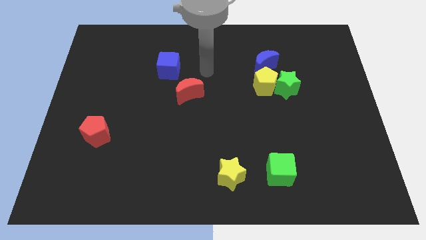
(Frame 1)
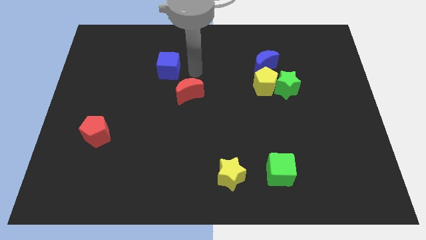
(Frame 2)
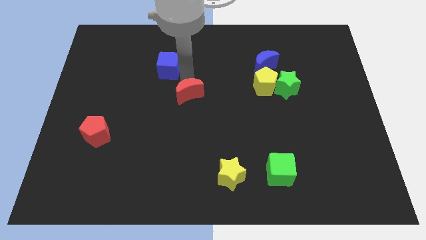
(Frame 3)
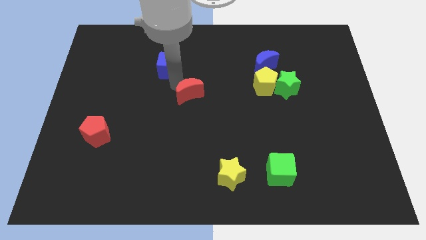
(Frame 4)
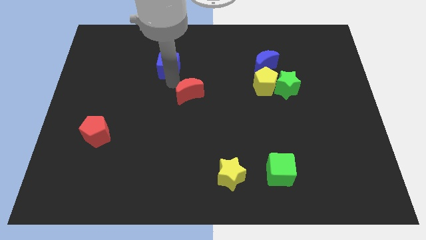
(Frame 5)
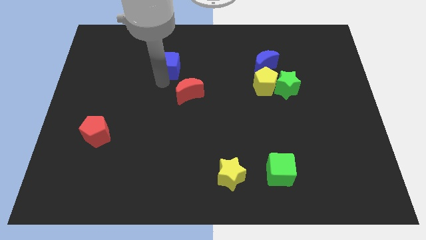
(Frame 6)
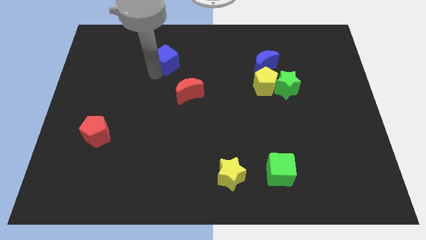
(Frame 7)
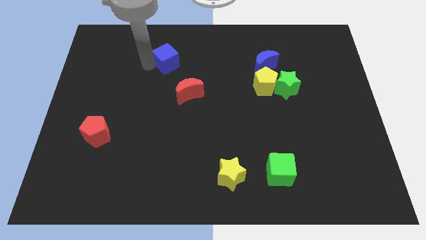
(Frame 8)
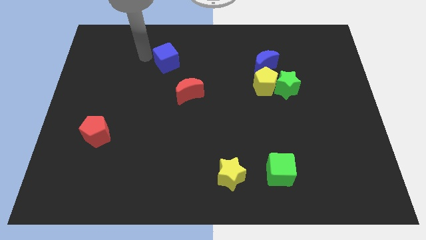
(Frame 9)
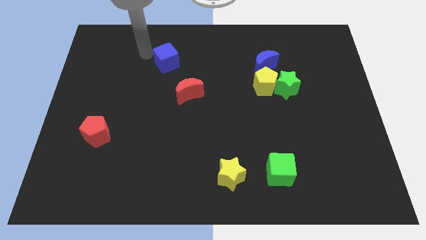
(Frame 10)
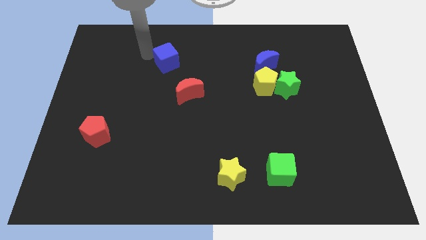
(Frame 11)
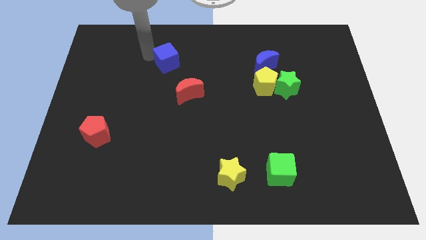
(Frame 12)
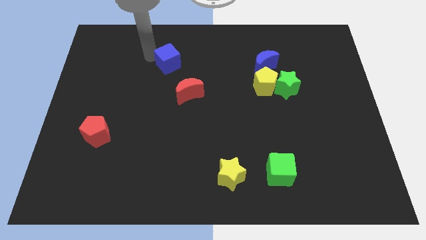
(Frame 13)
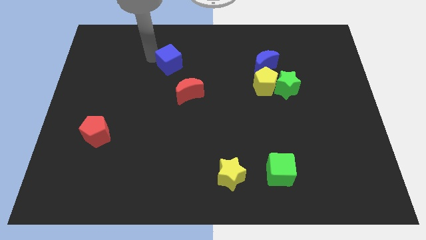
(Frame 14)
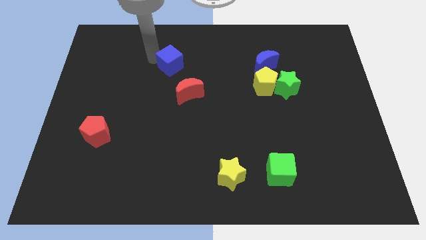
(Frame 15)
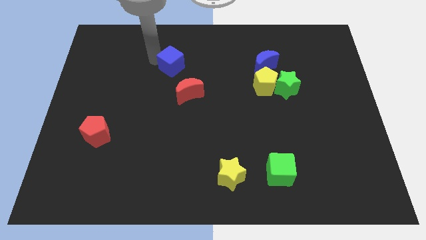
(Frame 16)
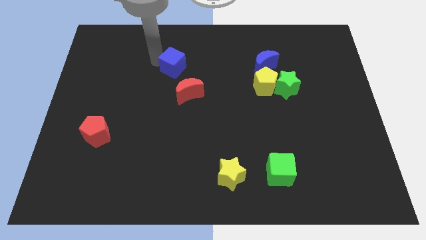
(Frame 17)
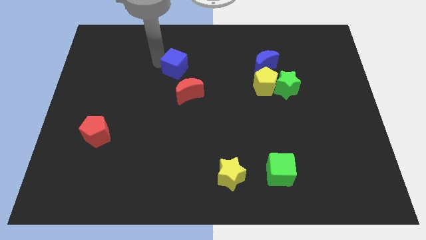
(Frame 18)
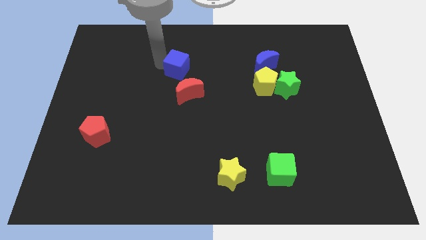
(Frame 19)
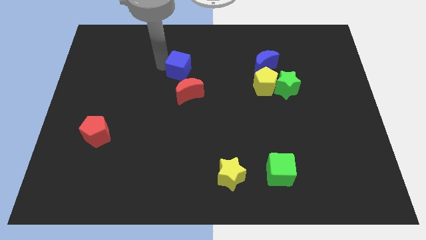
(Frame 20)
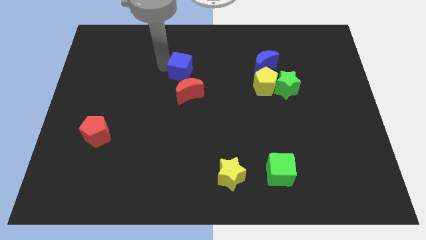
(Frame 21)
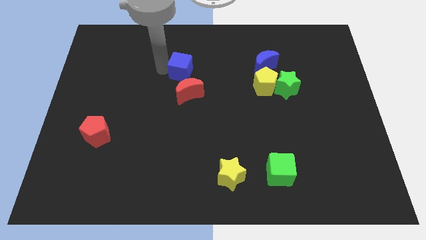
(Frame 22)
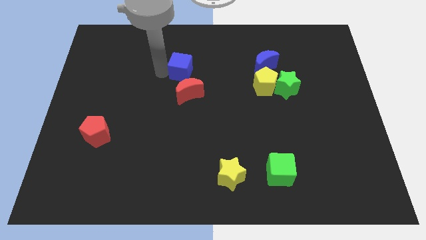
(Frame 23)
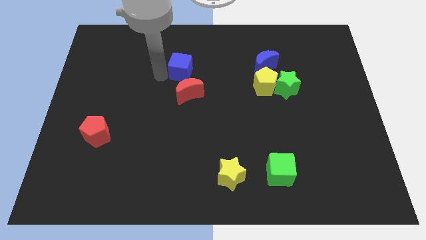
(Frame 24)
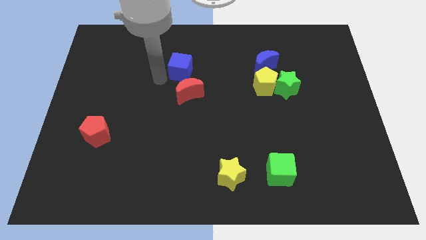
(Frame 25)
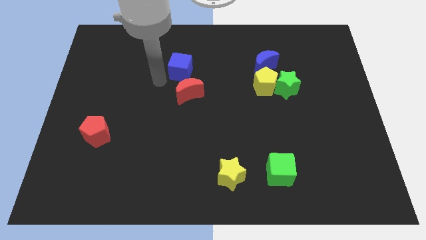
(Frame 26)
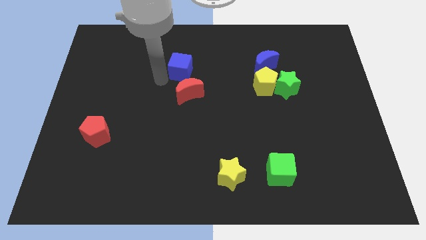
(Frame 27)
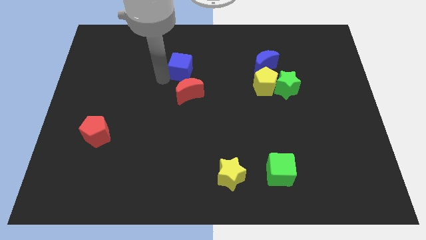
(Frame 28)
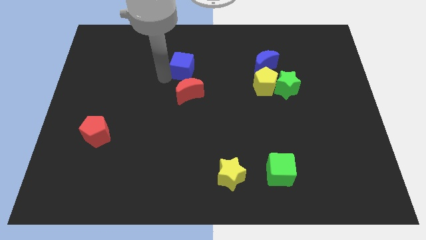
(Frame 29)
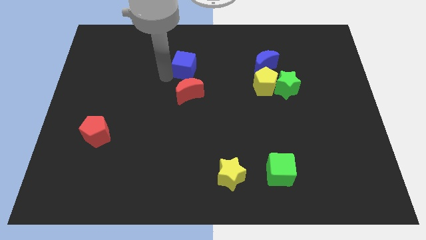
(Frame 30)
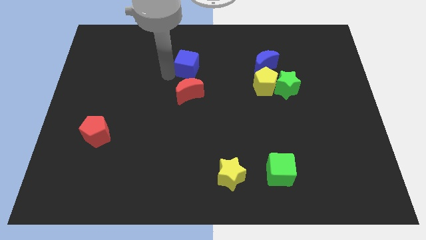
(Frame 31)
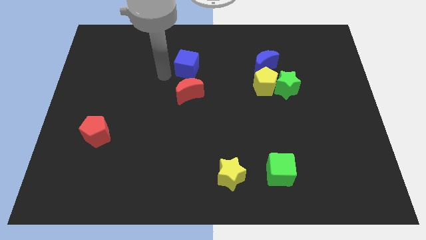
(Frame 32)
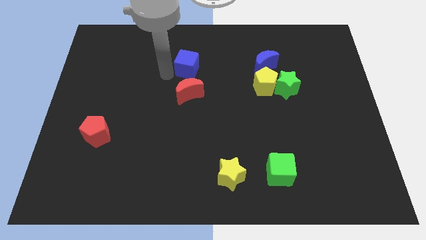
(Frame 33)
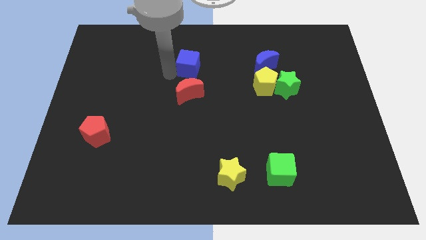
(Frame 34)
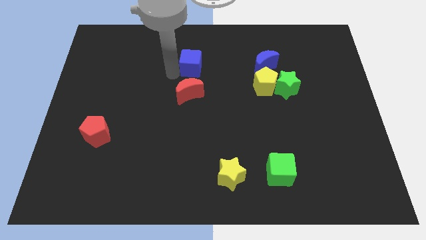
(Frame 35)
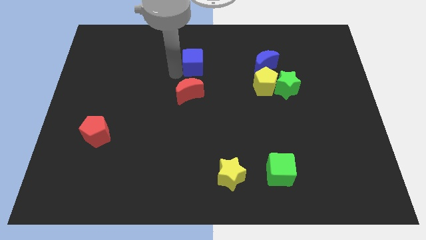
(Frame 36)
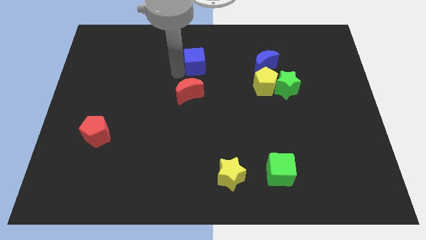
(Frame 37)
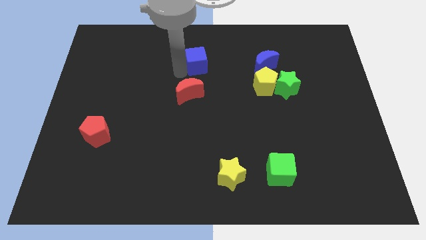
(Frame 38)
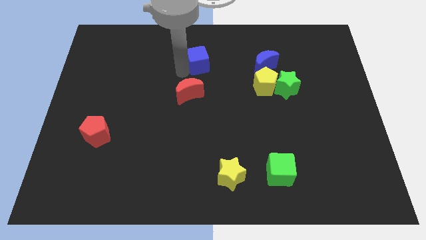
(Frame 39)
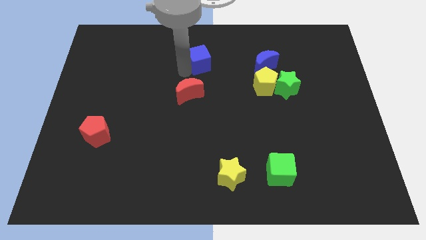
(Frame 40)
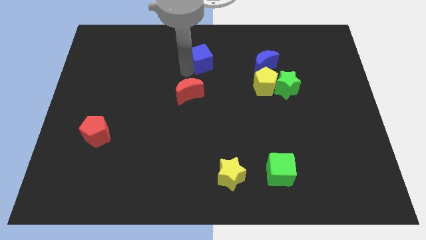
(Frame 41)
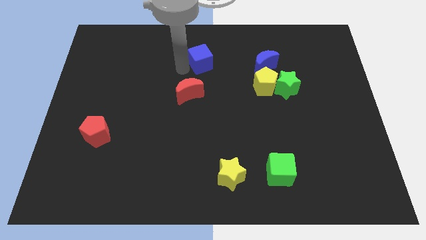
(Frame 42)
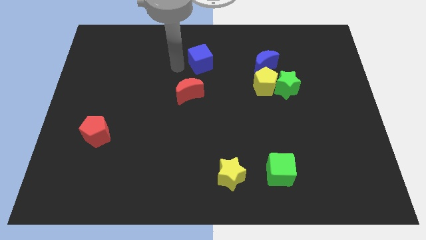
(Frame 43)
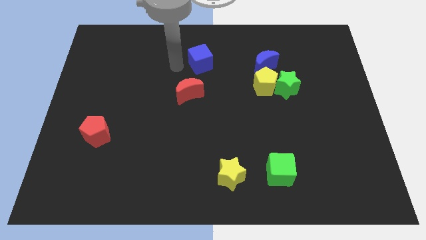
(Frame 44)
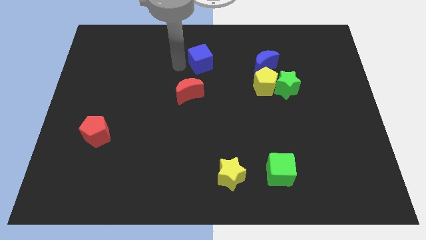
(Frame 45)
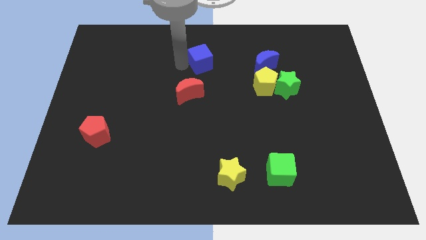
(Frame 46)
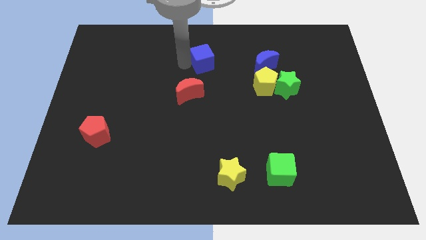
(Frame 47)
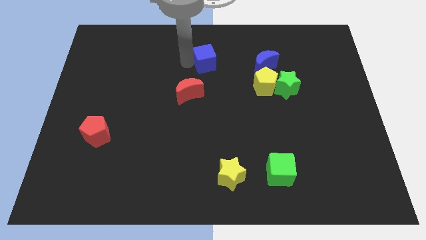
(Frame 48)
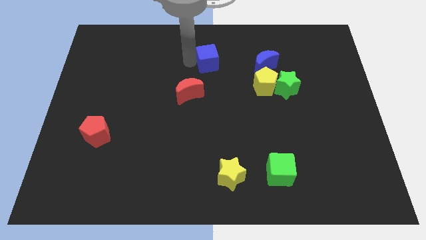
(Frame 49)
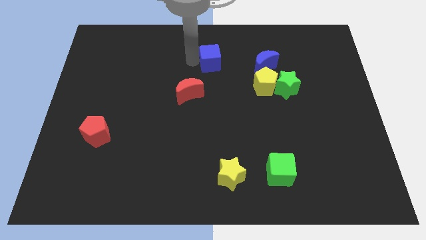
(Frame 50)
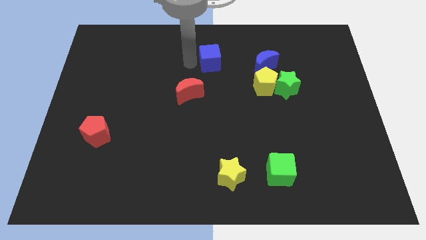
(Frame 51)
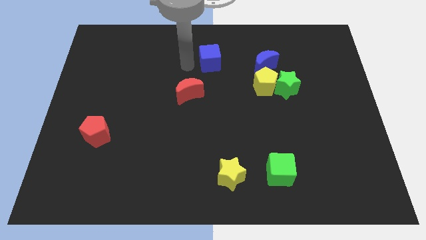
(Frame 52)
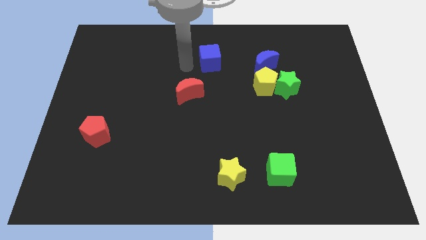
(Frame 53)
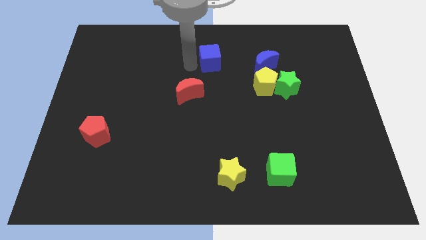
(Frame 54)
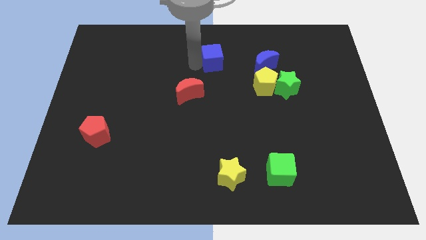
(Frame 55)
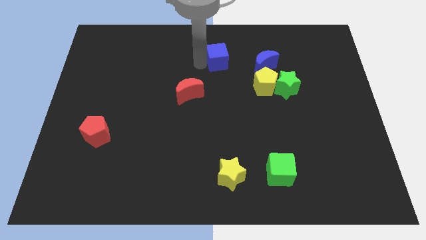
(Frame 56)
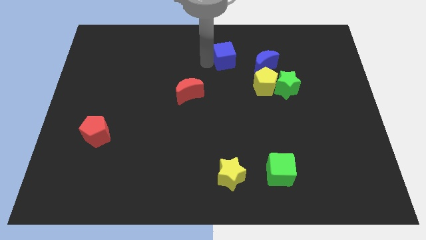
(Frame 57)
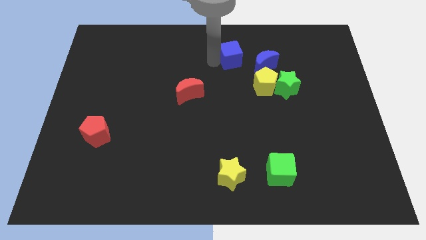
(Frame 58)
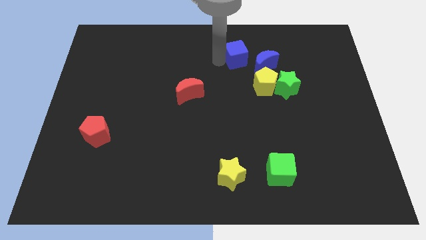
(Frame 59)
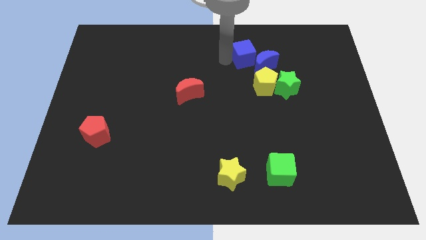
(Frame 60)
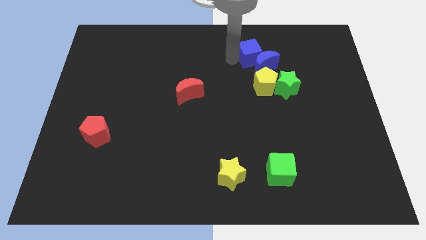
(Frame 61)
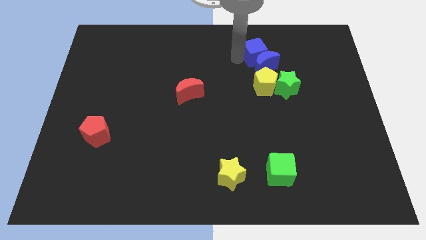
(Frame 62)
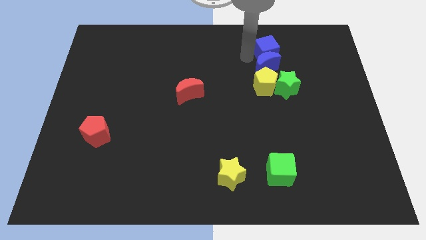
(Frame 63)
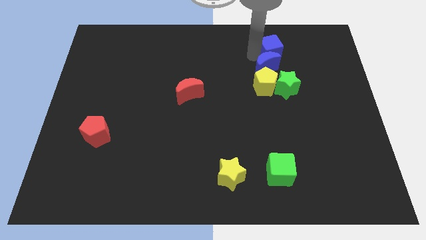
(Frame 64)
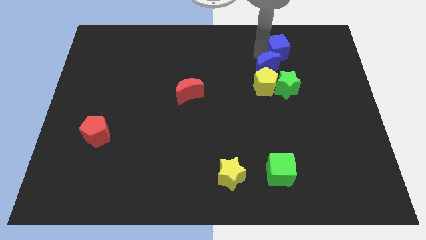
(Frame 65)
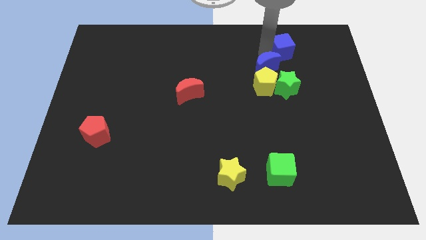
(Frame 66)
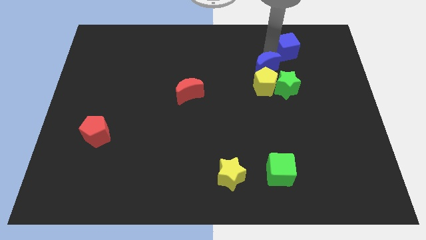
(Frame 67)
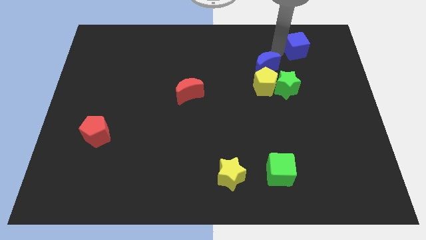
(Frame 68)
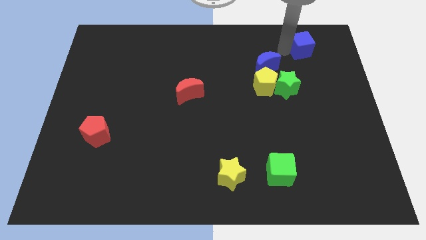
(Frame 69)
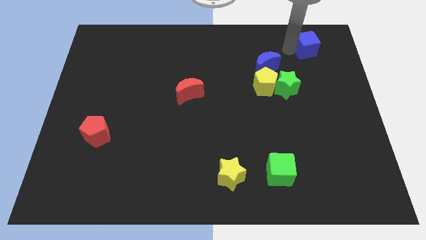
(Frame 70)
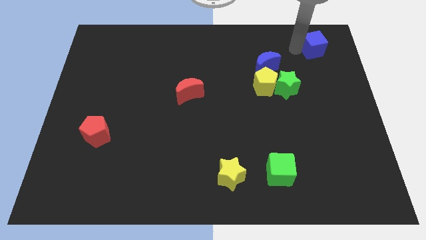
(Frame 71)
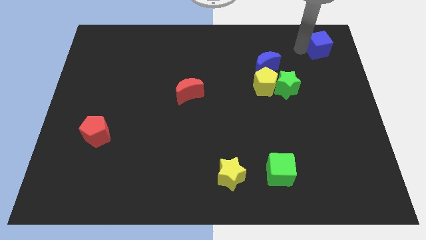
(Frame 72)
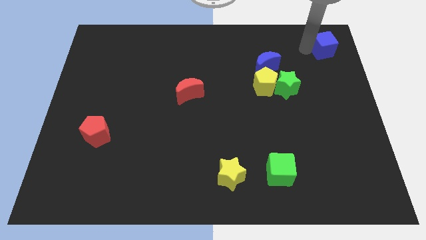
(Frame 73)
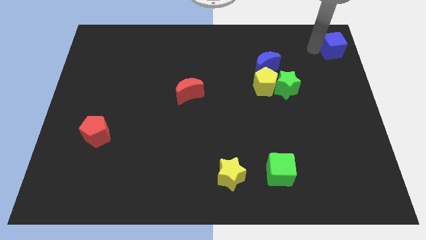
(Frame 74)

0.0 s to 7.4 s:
move the blue cube to the upper right corner
